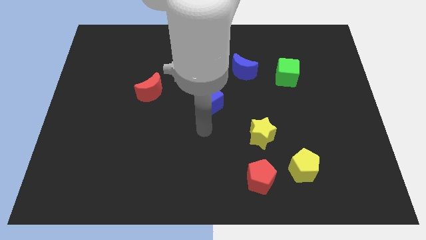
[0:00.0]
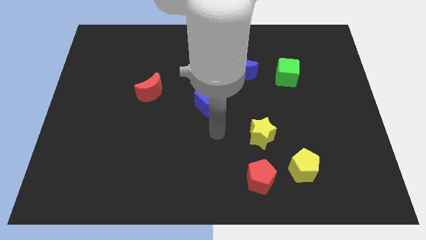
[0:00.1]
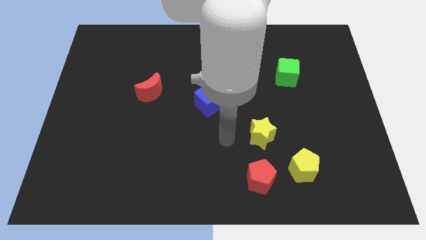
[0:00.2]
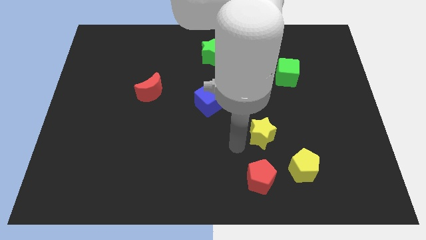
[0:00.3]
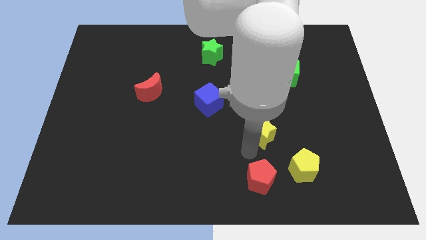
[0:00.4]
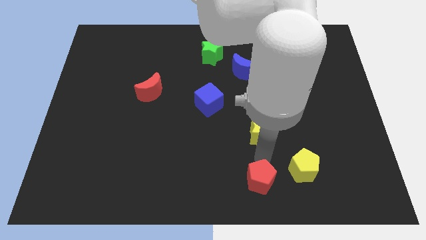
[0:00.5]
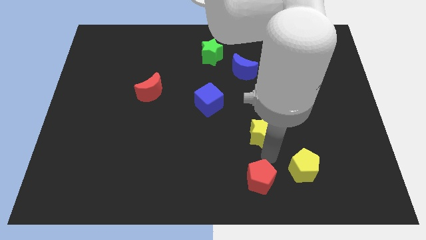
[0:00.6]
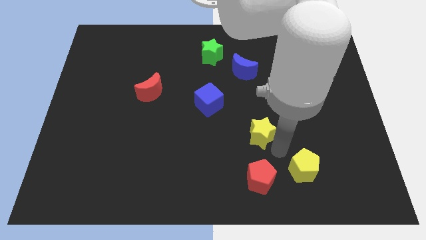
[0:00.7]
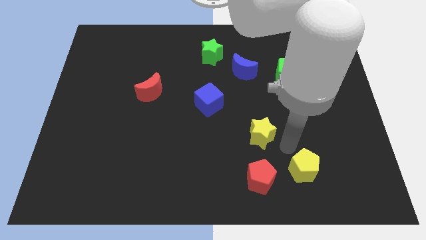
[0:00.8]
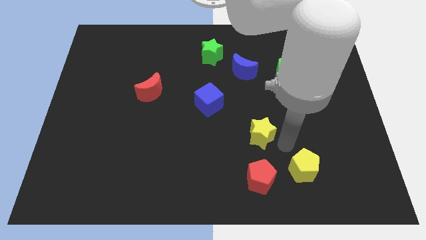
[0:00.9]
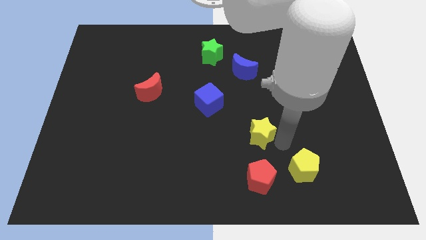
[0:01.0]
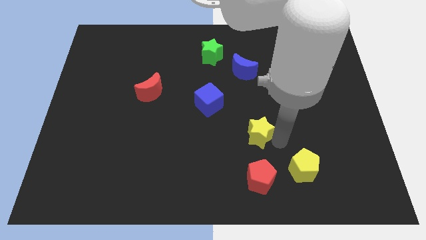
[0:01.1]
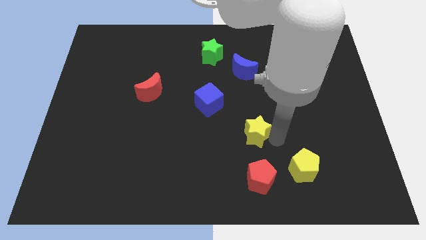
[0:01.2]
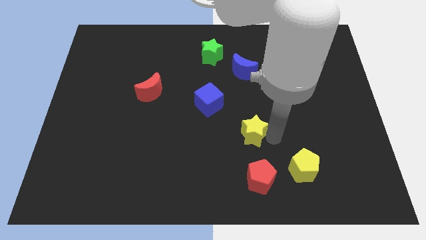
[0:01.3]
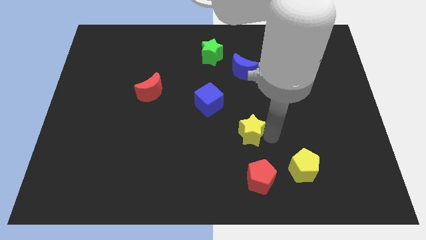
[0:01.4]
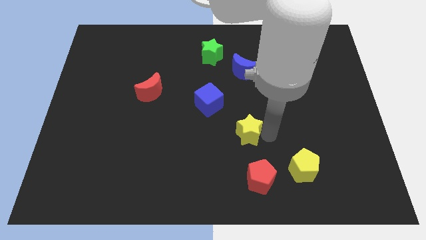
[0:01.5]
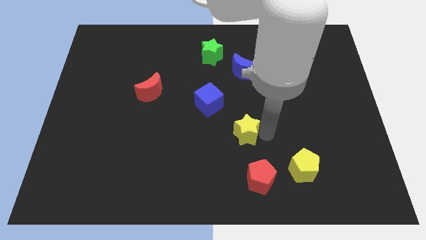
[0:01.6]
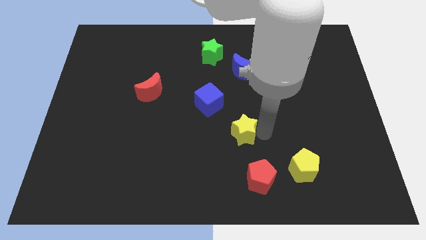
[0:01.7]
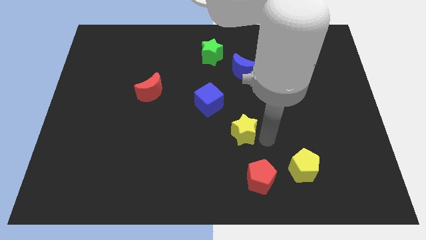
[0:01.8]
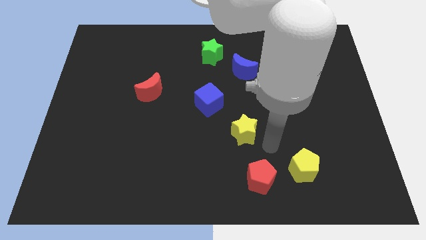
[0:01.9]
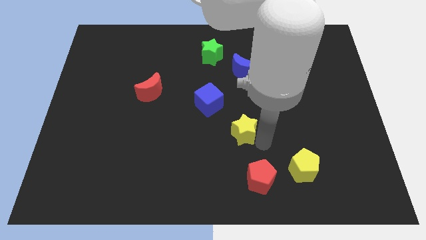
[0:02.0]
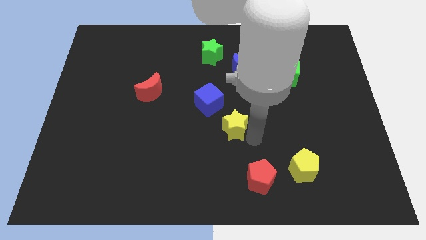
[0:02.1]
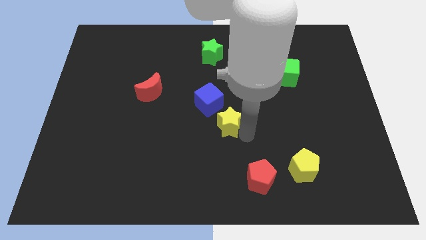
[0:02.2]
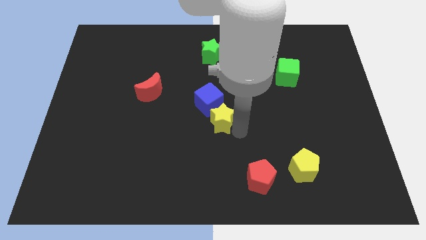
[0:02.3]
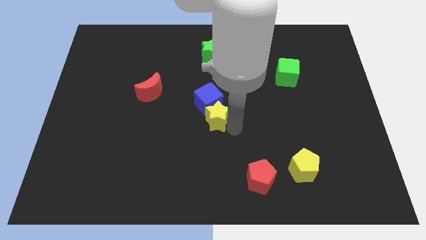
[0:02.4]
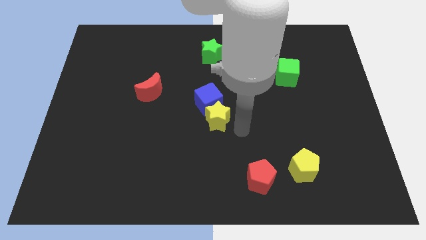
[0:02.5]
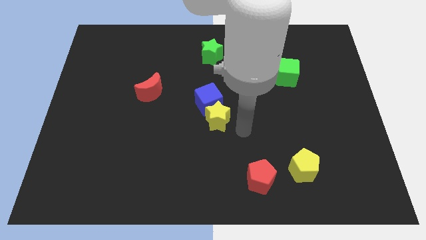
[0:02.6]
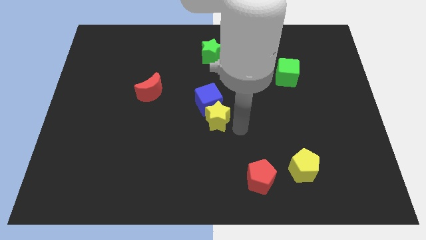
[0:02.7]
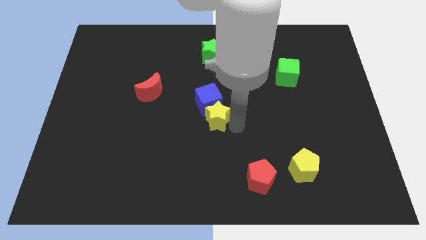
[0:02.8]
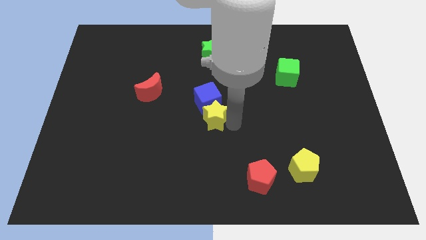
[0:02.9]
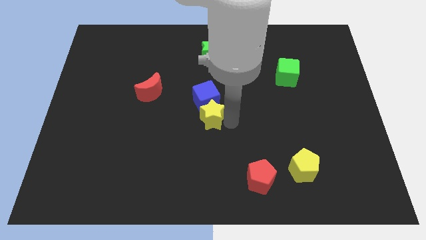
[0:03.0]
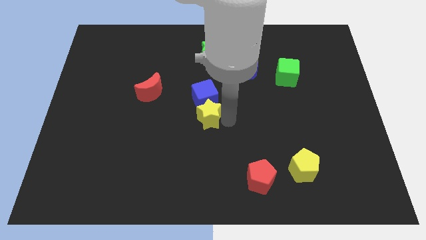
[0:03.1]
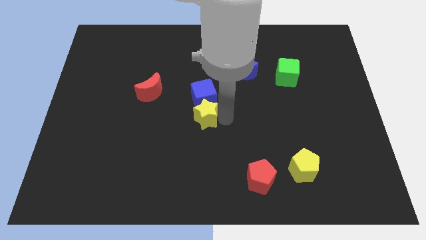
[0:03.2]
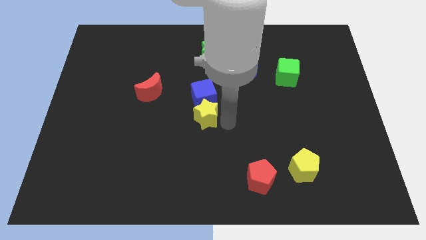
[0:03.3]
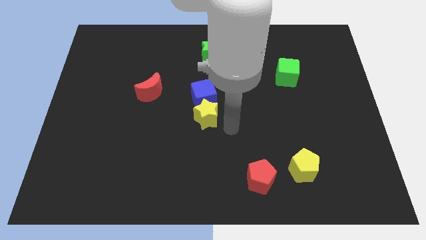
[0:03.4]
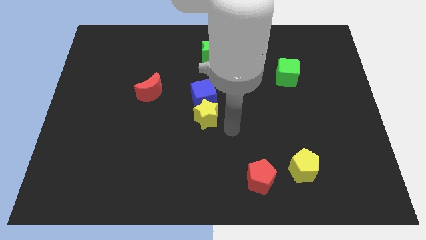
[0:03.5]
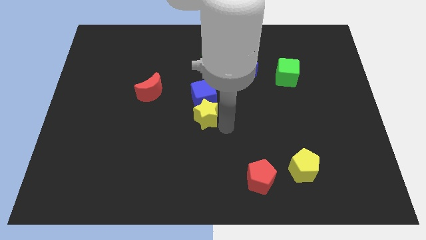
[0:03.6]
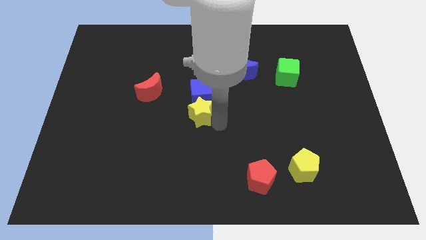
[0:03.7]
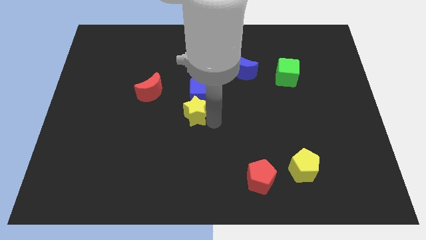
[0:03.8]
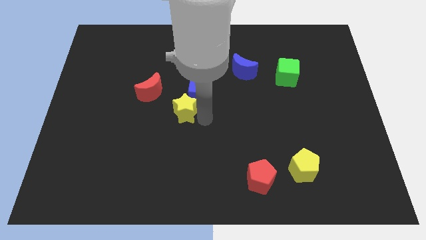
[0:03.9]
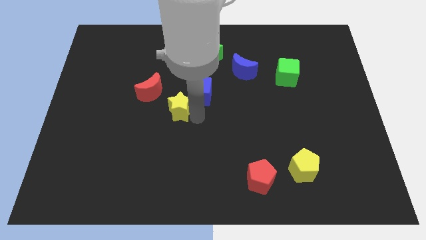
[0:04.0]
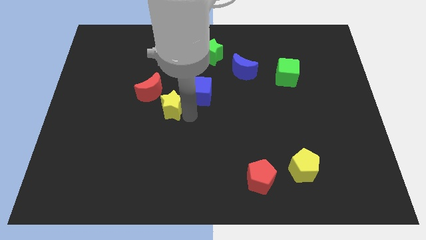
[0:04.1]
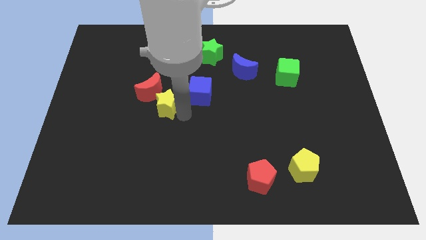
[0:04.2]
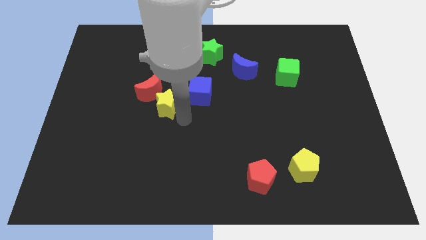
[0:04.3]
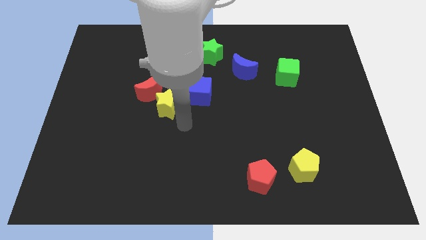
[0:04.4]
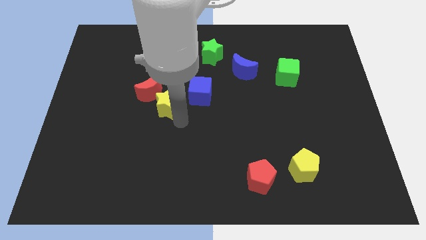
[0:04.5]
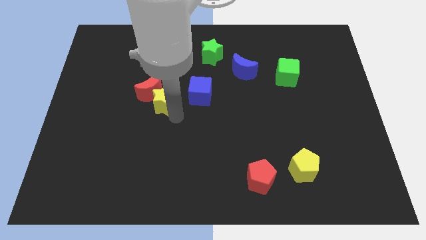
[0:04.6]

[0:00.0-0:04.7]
put the yellow star towards the red moon

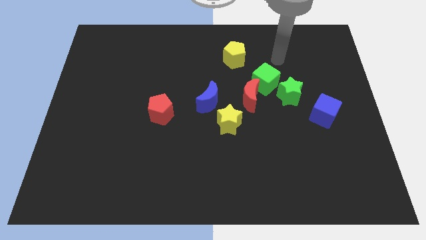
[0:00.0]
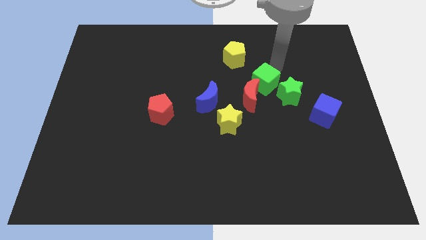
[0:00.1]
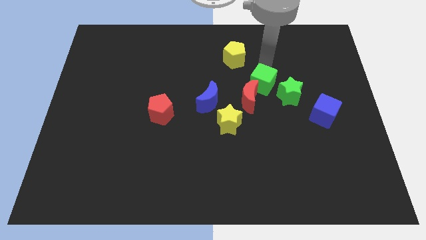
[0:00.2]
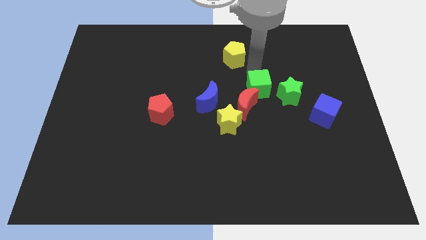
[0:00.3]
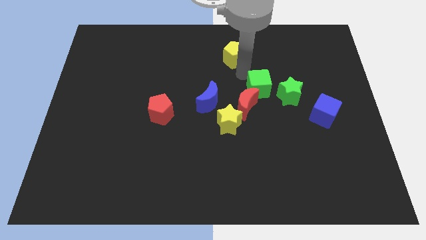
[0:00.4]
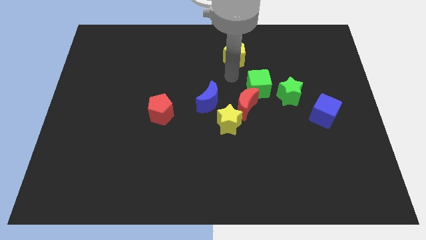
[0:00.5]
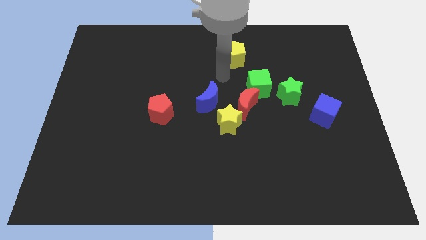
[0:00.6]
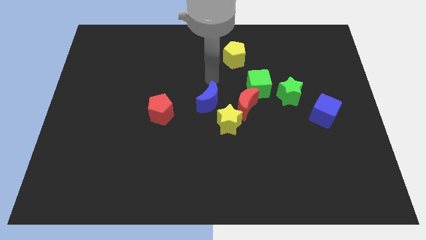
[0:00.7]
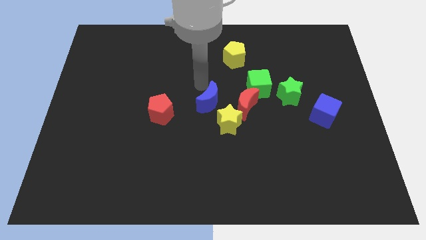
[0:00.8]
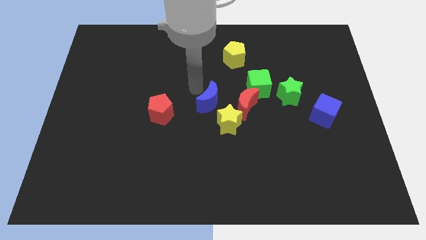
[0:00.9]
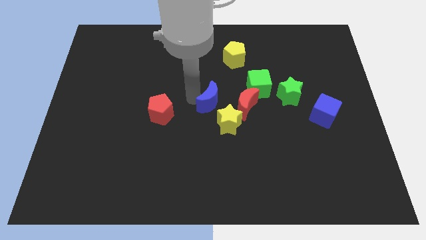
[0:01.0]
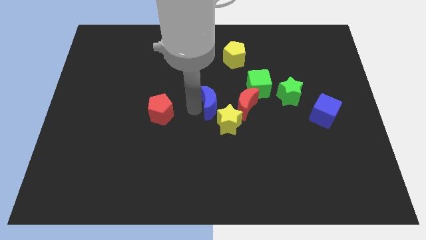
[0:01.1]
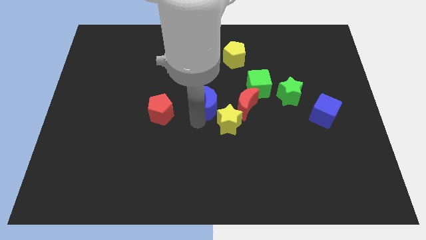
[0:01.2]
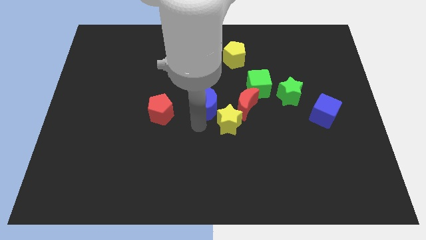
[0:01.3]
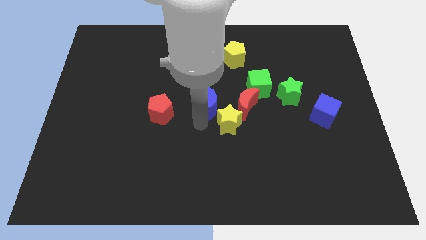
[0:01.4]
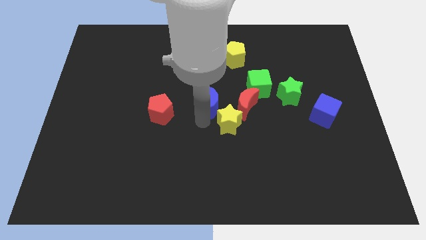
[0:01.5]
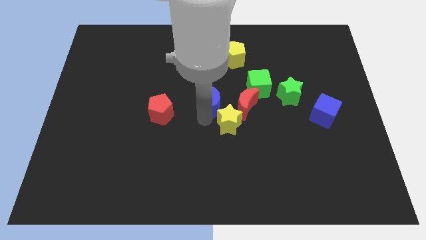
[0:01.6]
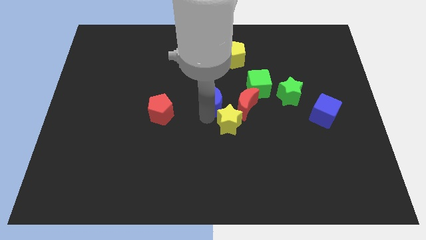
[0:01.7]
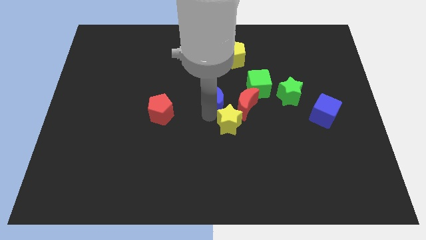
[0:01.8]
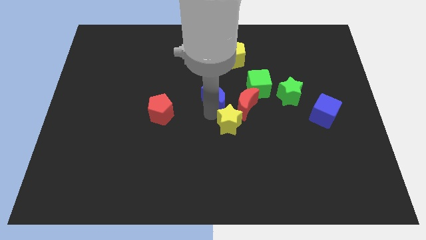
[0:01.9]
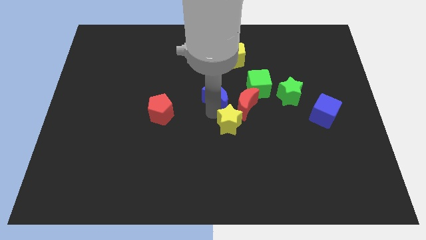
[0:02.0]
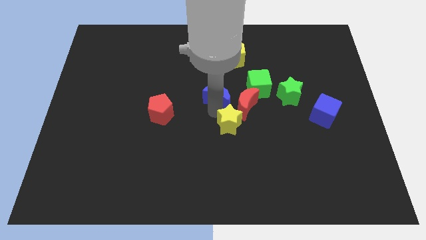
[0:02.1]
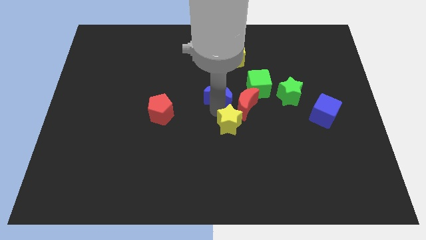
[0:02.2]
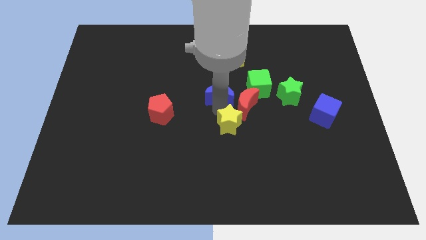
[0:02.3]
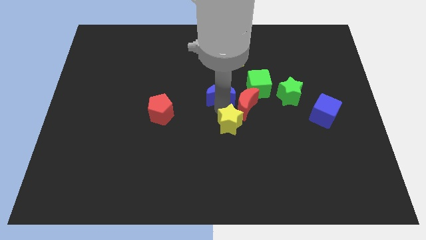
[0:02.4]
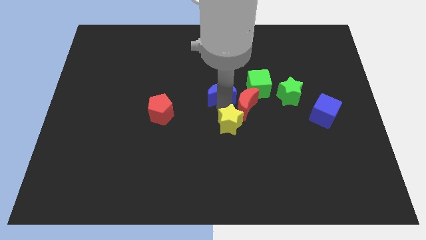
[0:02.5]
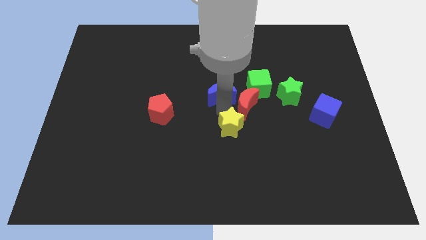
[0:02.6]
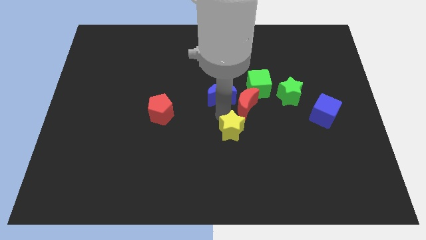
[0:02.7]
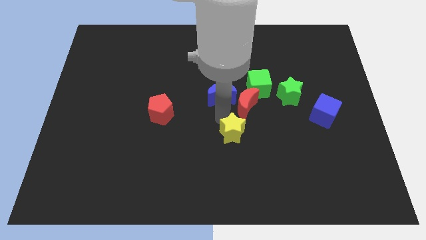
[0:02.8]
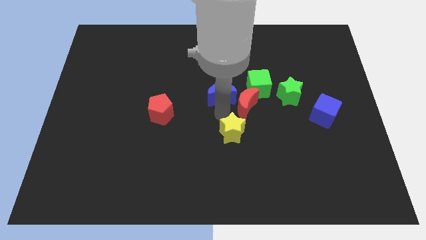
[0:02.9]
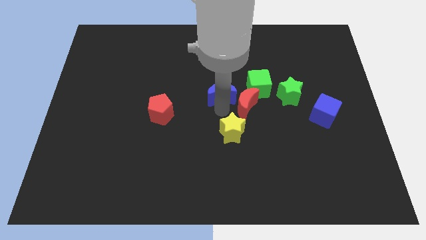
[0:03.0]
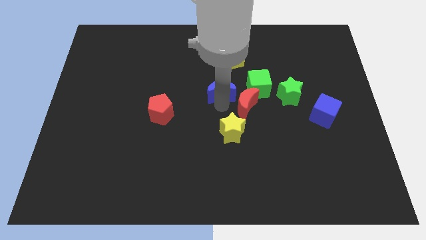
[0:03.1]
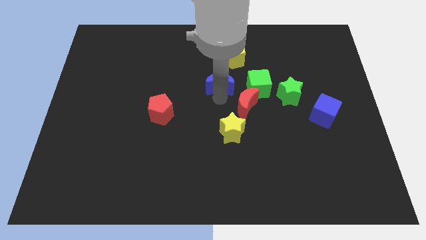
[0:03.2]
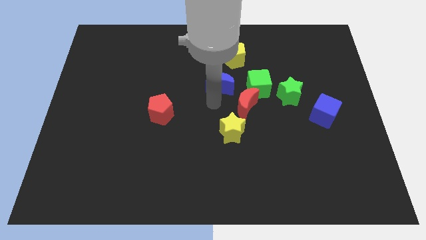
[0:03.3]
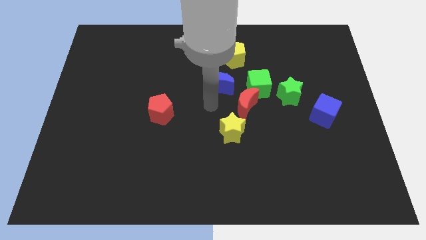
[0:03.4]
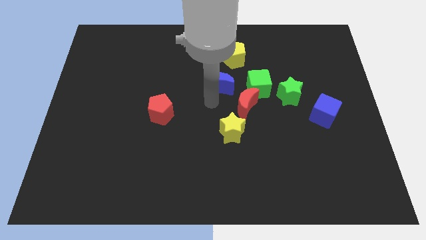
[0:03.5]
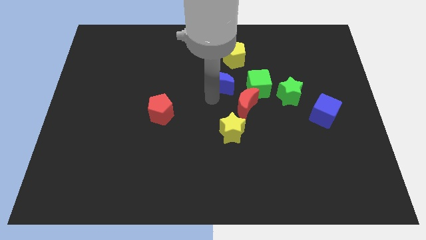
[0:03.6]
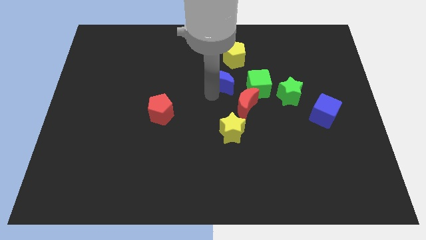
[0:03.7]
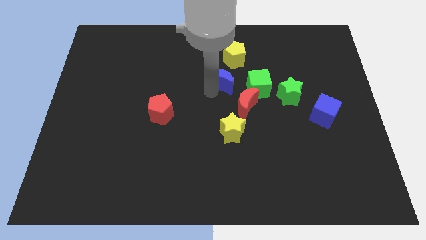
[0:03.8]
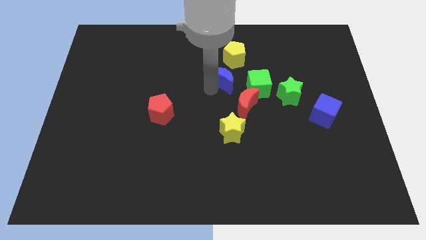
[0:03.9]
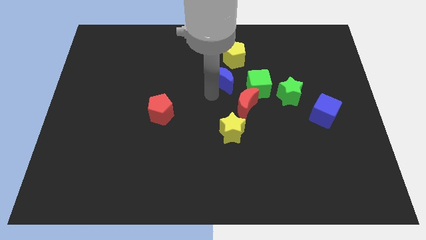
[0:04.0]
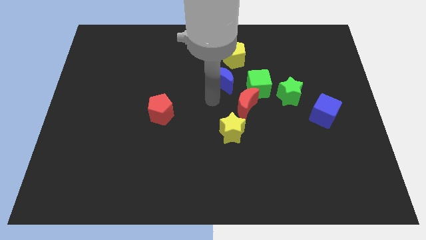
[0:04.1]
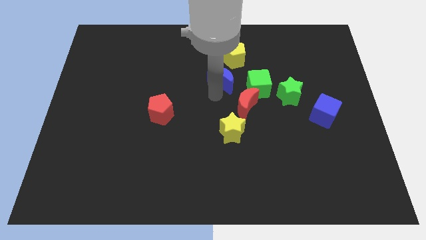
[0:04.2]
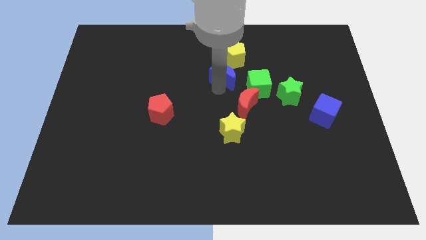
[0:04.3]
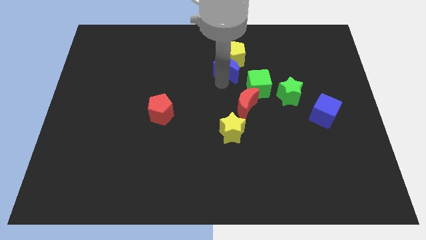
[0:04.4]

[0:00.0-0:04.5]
put the blue moon close to the yellow pentagon
